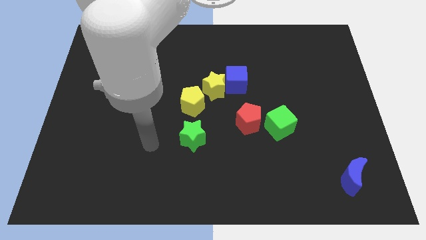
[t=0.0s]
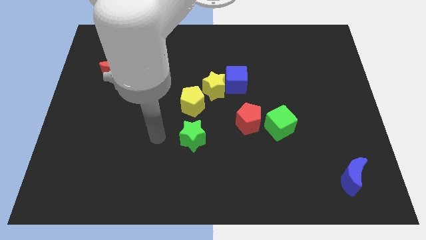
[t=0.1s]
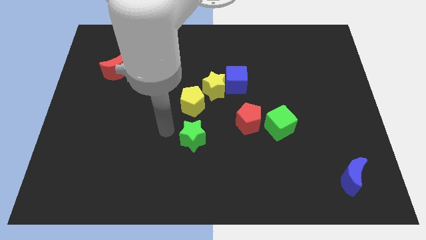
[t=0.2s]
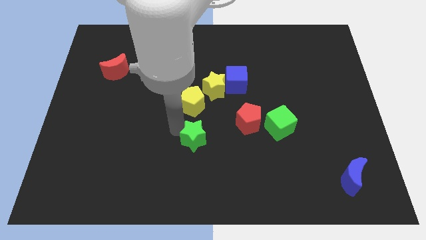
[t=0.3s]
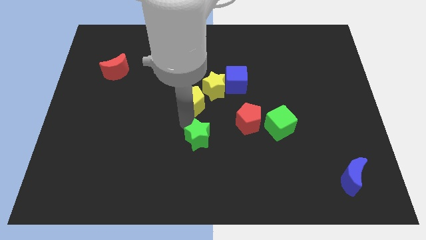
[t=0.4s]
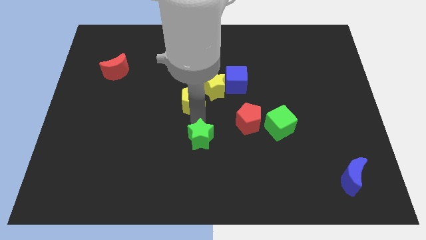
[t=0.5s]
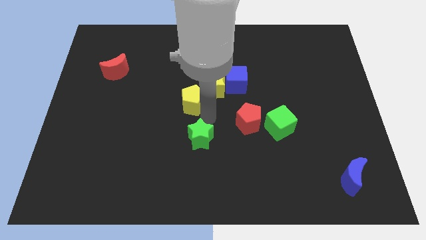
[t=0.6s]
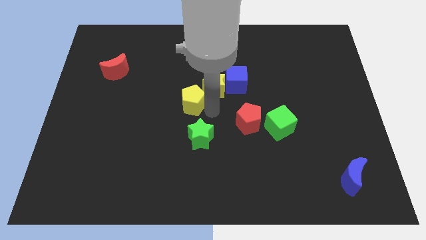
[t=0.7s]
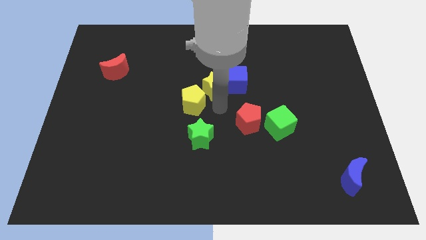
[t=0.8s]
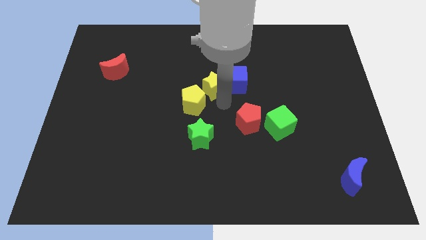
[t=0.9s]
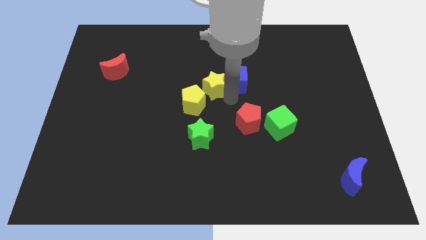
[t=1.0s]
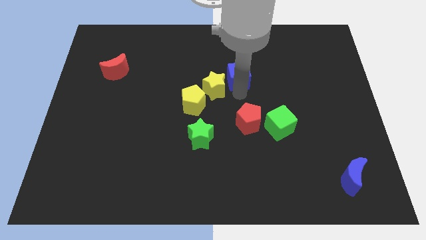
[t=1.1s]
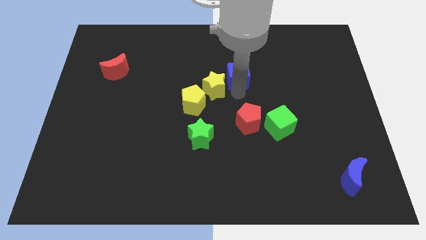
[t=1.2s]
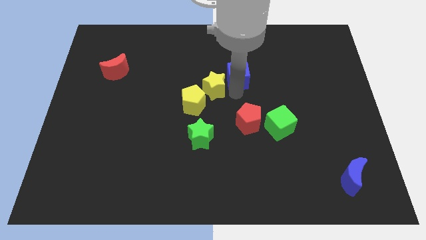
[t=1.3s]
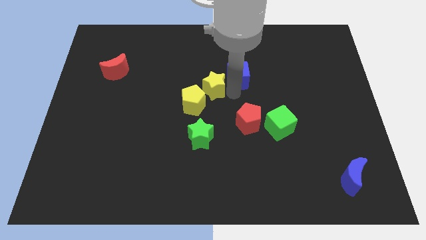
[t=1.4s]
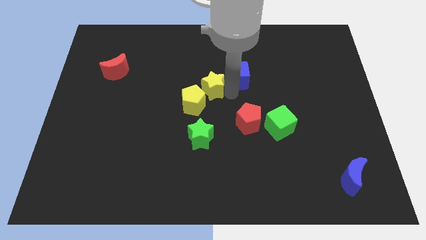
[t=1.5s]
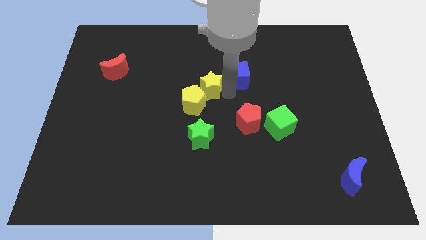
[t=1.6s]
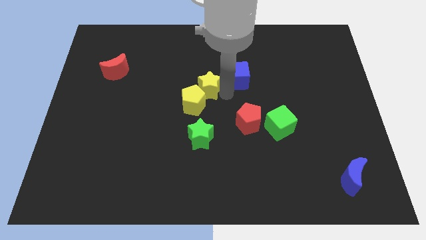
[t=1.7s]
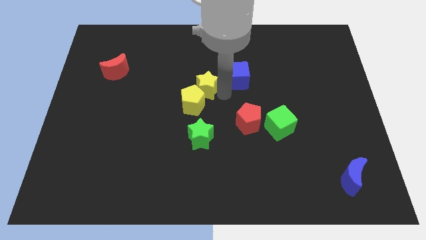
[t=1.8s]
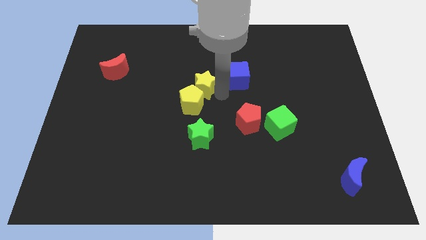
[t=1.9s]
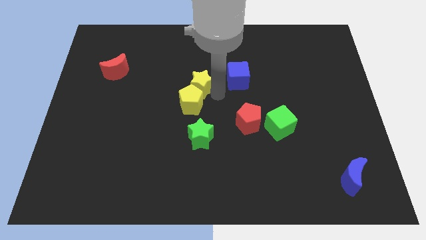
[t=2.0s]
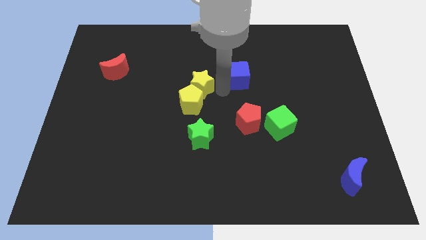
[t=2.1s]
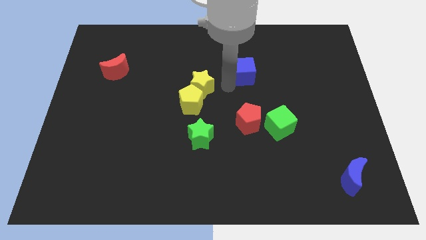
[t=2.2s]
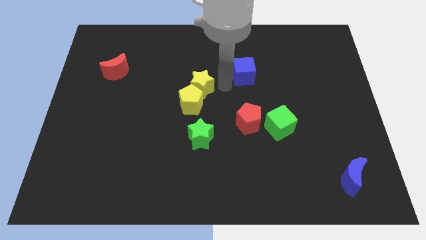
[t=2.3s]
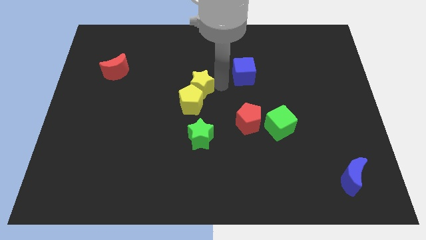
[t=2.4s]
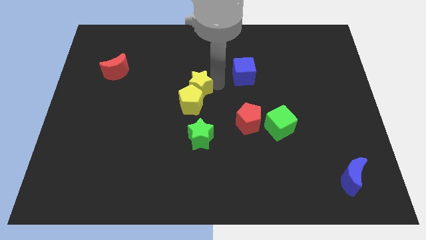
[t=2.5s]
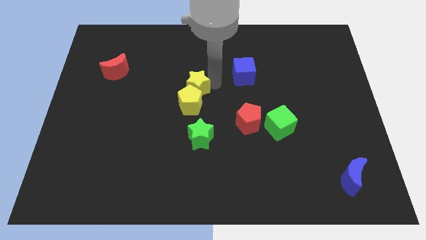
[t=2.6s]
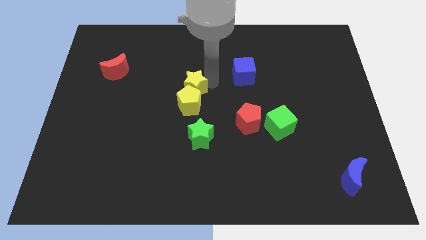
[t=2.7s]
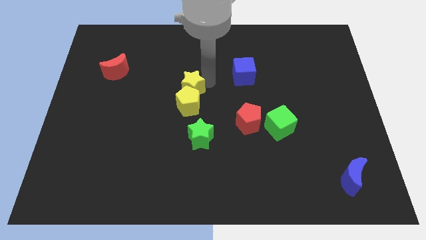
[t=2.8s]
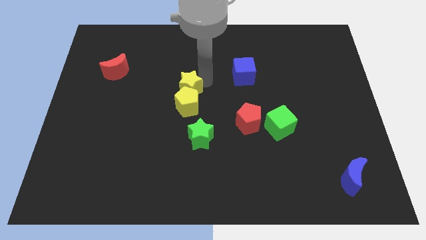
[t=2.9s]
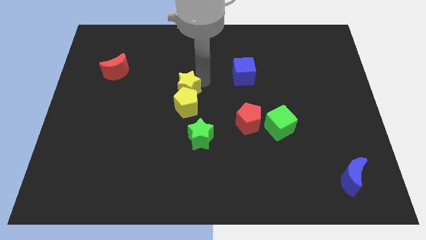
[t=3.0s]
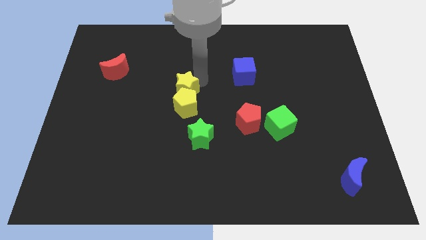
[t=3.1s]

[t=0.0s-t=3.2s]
slide the yellow star left a little bit

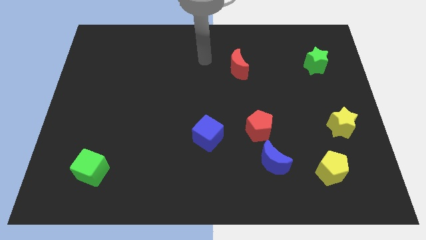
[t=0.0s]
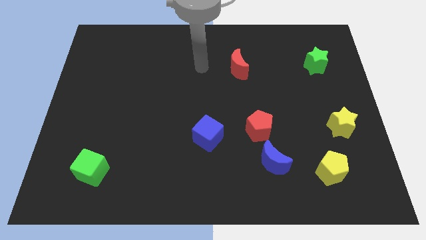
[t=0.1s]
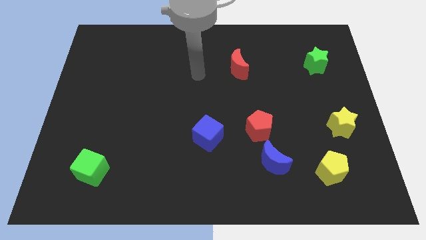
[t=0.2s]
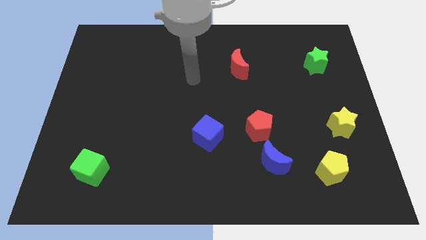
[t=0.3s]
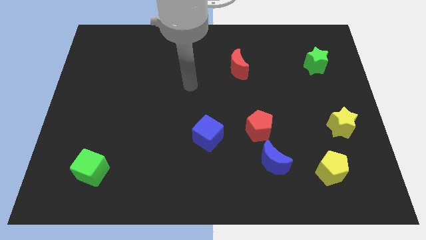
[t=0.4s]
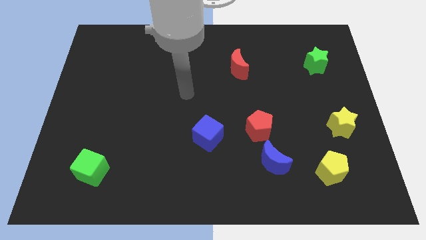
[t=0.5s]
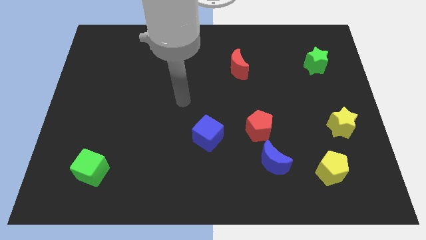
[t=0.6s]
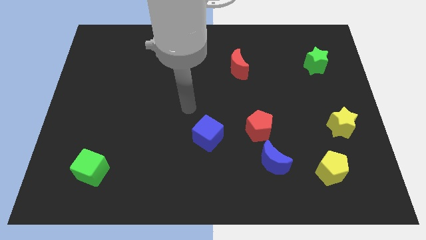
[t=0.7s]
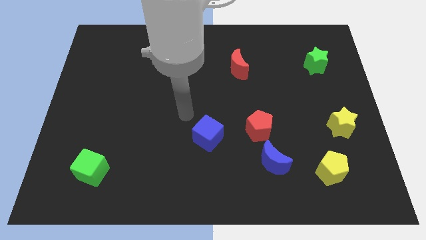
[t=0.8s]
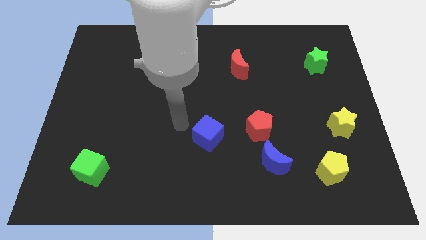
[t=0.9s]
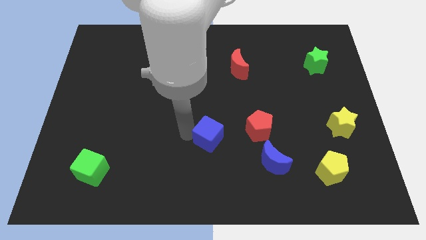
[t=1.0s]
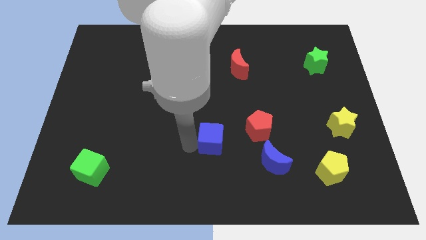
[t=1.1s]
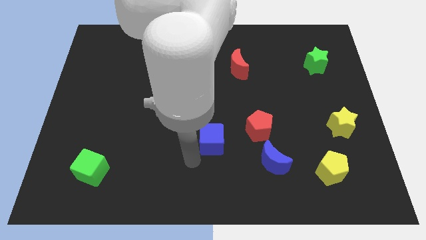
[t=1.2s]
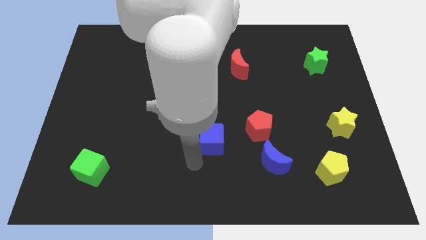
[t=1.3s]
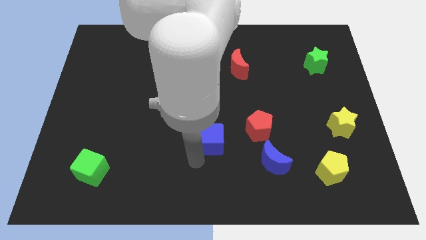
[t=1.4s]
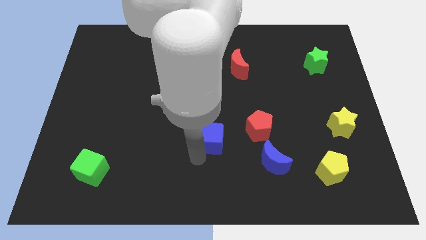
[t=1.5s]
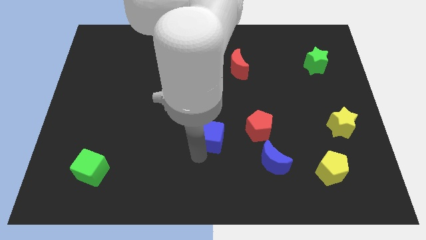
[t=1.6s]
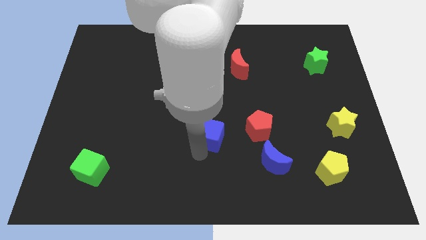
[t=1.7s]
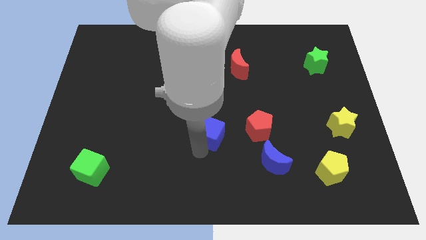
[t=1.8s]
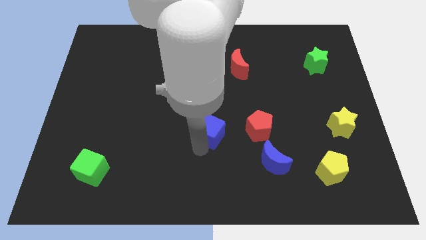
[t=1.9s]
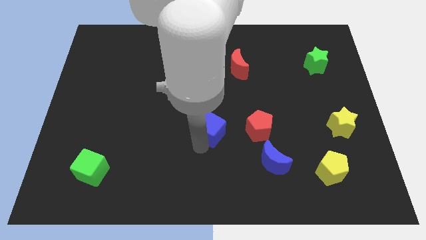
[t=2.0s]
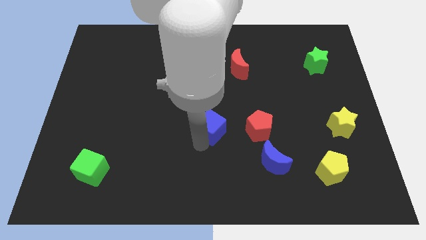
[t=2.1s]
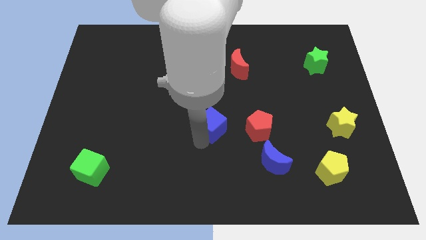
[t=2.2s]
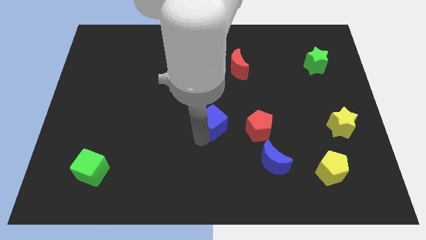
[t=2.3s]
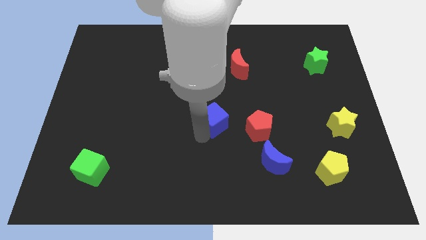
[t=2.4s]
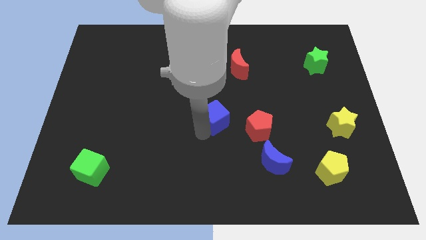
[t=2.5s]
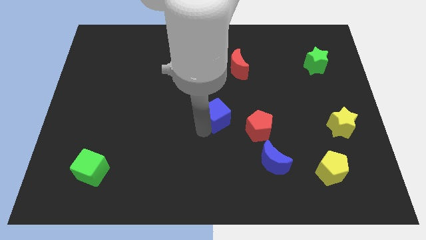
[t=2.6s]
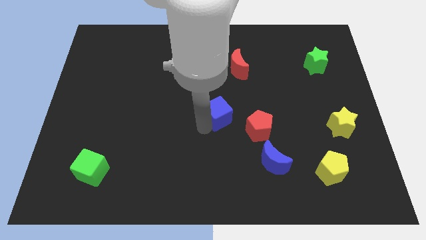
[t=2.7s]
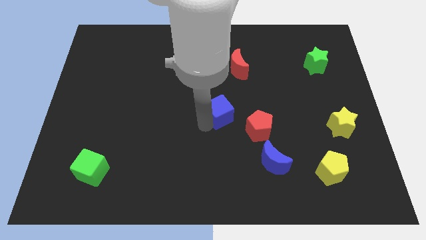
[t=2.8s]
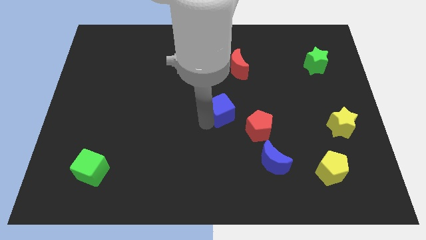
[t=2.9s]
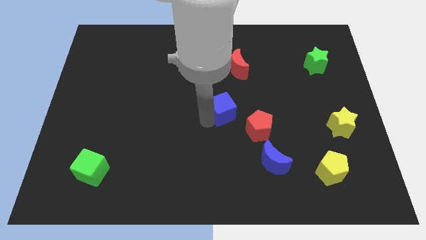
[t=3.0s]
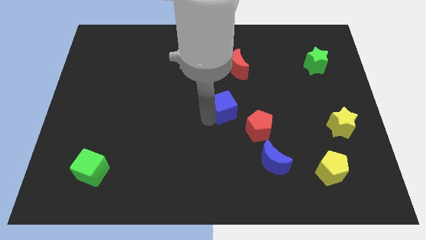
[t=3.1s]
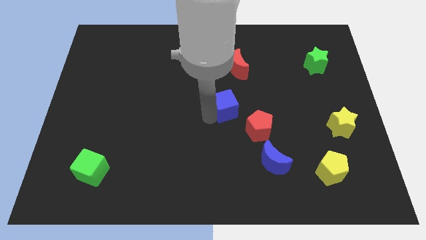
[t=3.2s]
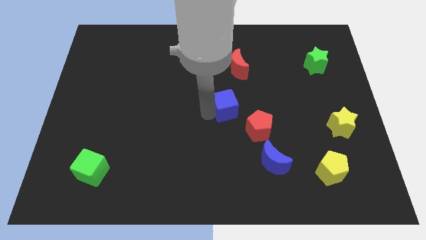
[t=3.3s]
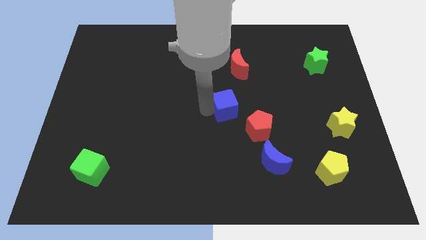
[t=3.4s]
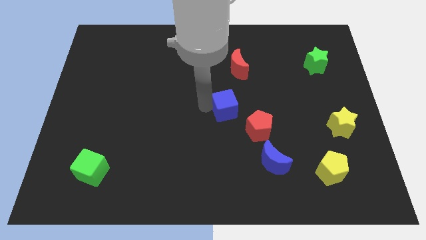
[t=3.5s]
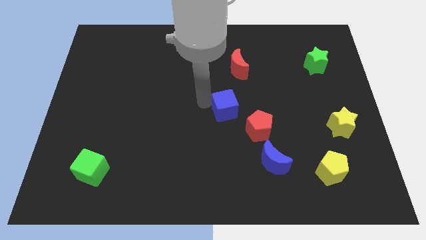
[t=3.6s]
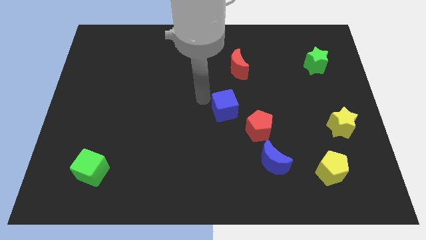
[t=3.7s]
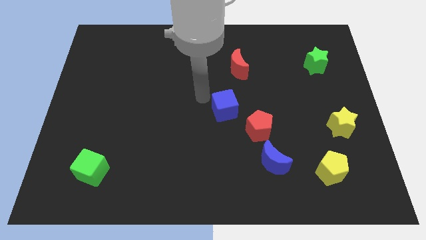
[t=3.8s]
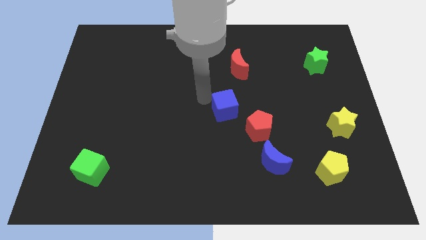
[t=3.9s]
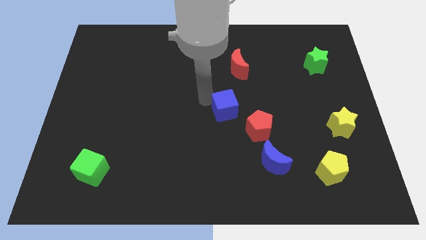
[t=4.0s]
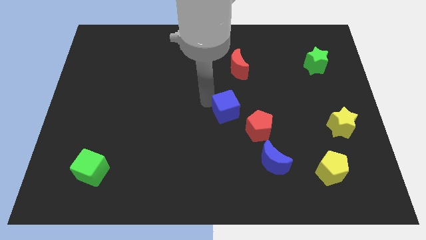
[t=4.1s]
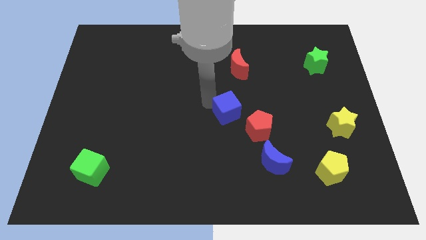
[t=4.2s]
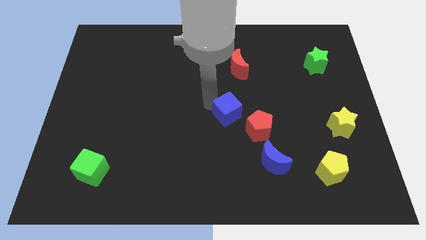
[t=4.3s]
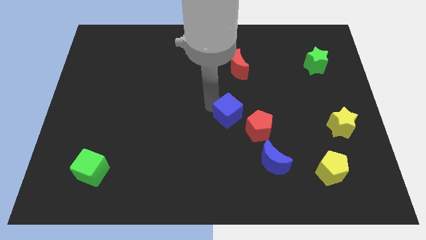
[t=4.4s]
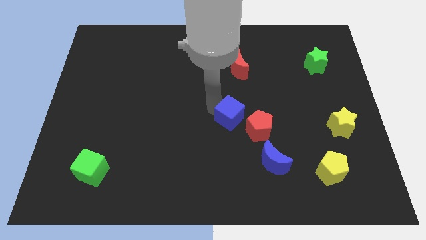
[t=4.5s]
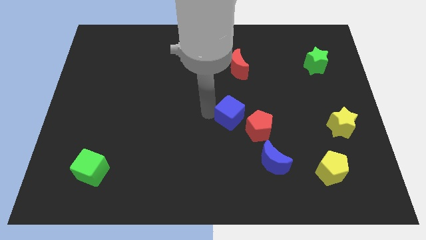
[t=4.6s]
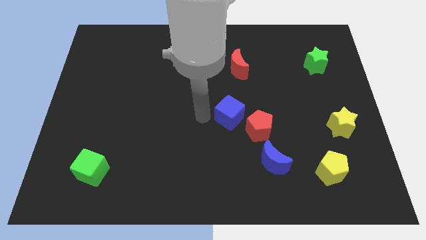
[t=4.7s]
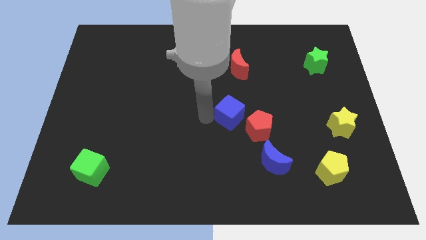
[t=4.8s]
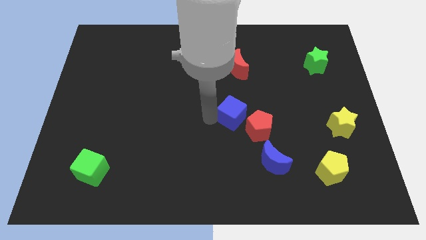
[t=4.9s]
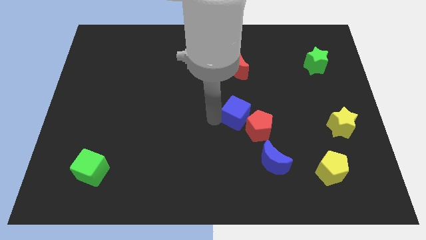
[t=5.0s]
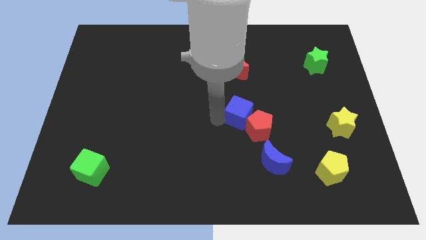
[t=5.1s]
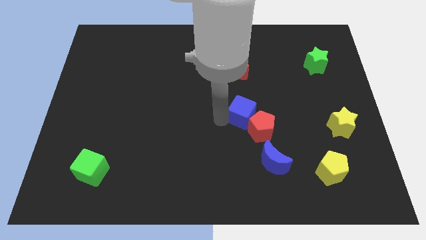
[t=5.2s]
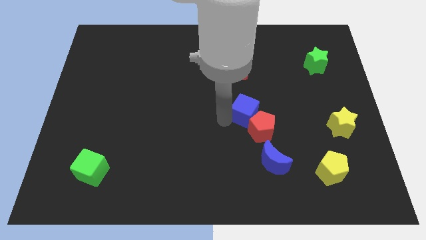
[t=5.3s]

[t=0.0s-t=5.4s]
push the blue cube a little bit to the right
